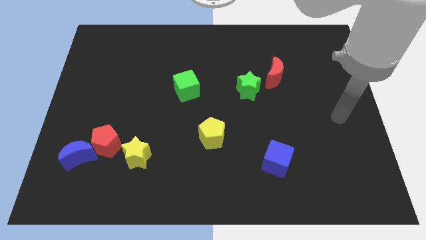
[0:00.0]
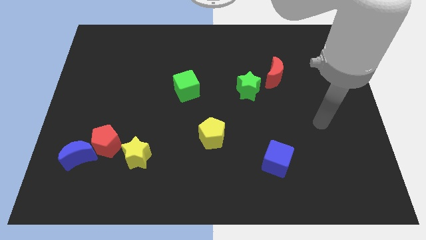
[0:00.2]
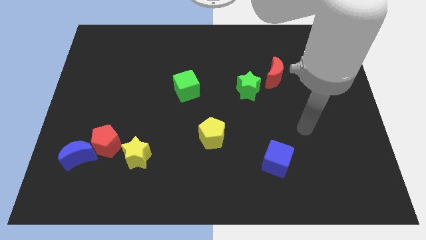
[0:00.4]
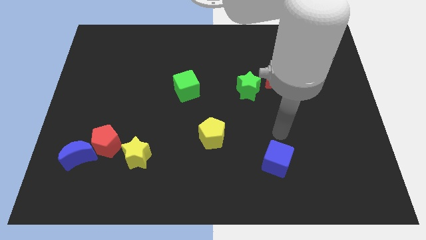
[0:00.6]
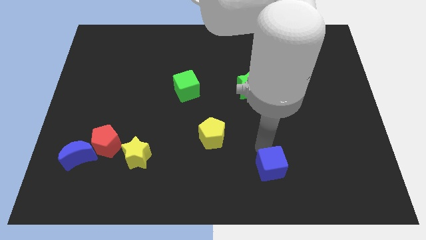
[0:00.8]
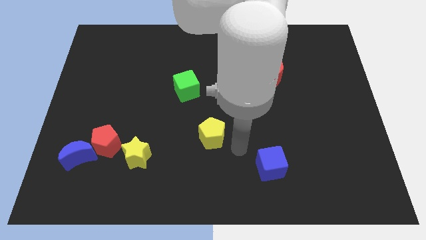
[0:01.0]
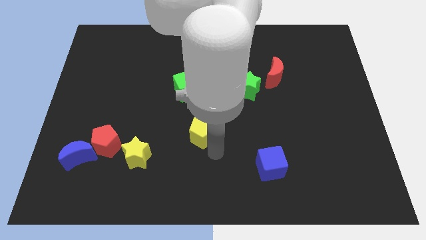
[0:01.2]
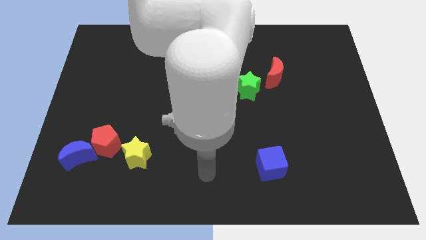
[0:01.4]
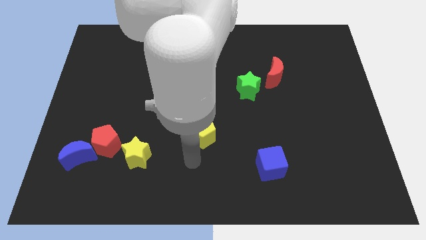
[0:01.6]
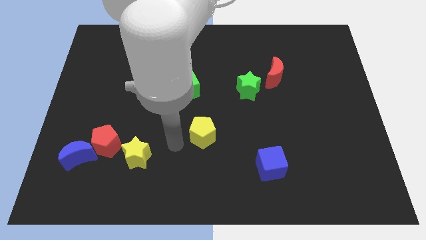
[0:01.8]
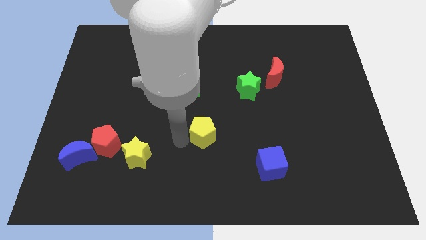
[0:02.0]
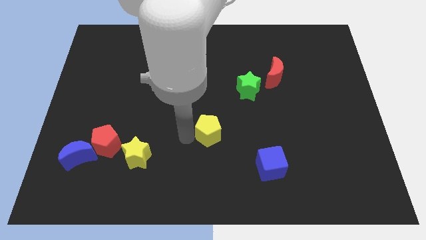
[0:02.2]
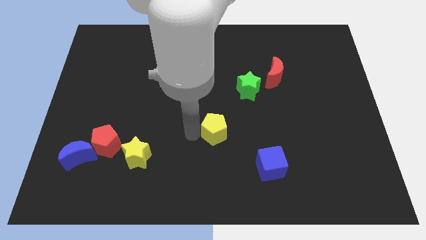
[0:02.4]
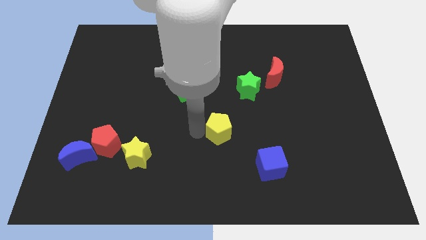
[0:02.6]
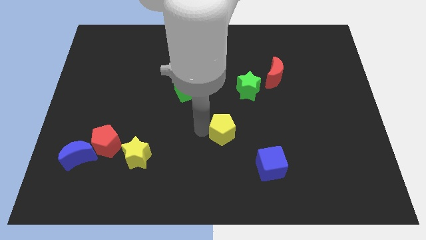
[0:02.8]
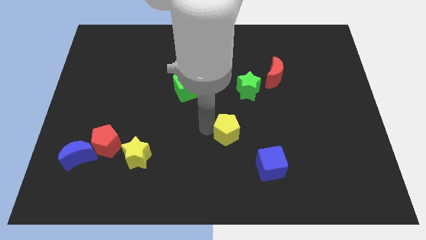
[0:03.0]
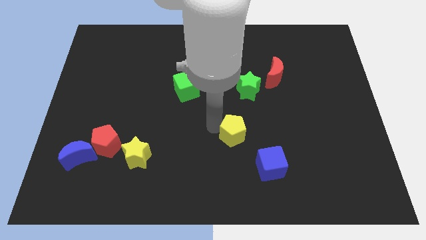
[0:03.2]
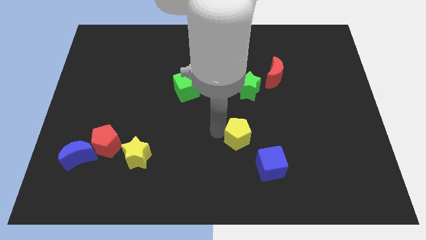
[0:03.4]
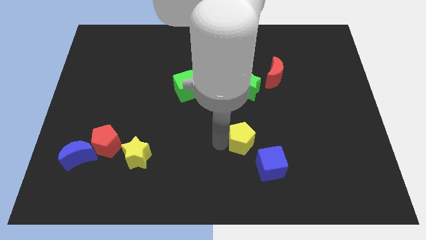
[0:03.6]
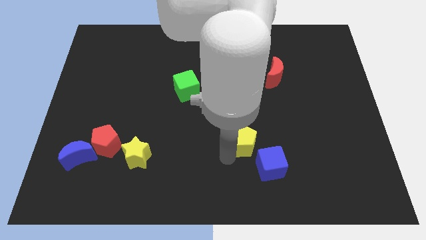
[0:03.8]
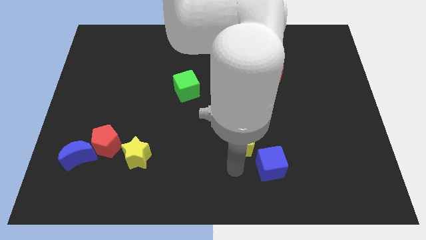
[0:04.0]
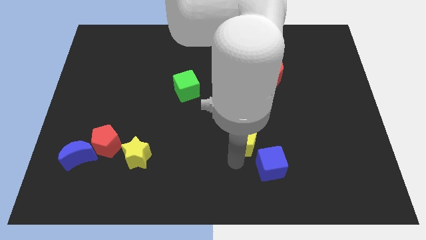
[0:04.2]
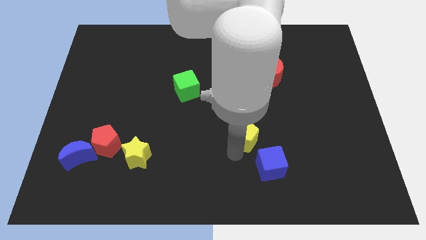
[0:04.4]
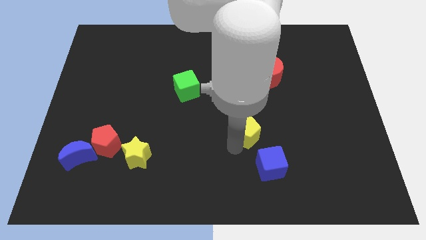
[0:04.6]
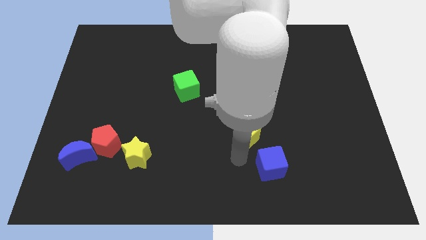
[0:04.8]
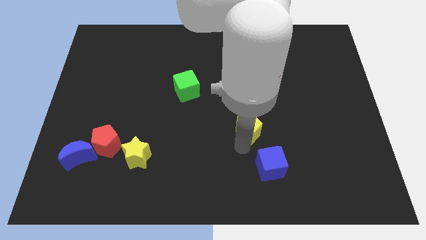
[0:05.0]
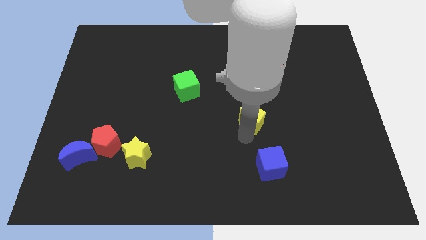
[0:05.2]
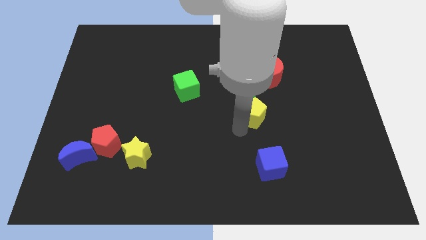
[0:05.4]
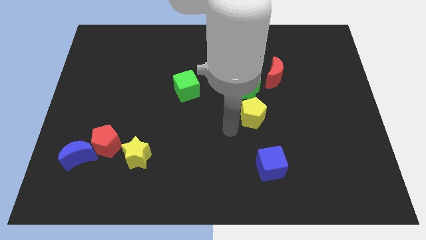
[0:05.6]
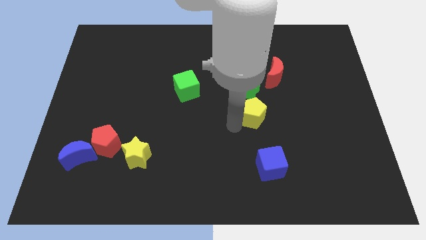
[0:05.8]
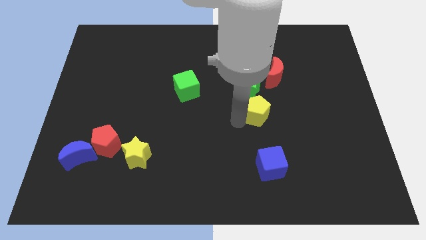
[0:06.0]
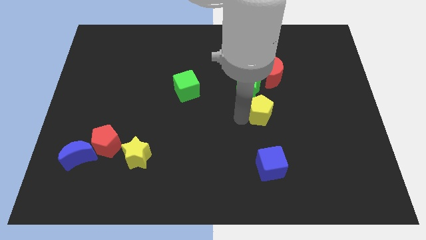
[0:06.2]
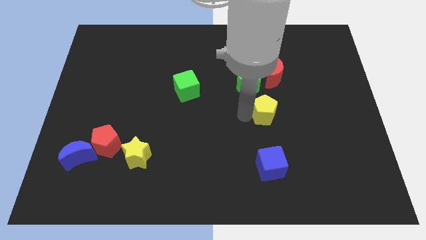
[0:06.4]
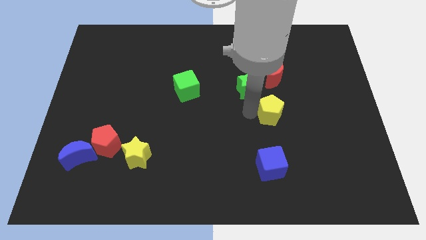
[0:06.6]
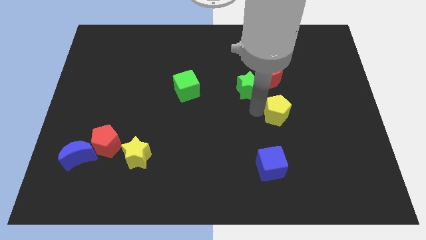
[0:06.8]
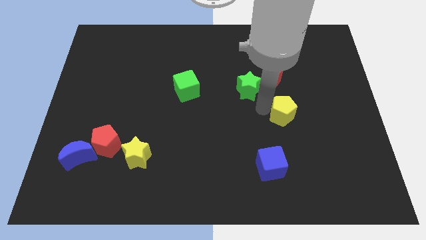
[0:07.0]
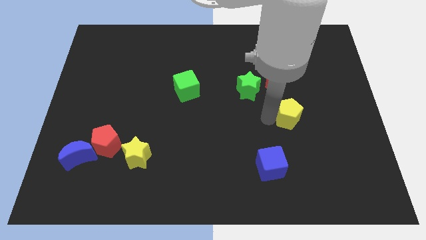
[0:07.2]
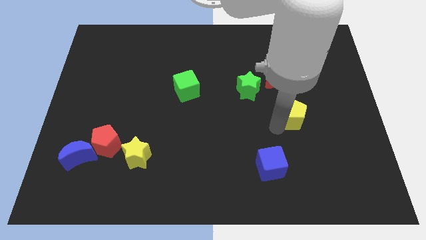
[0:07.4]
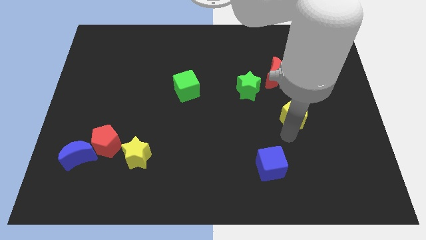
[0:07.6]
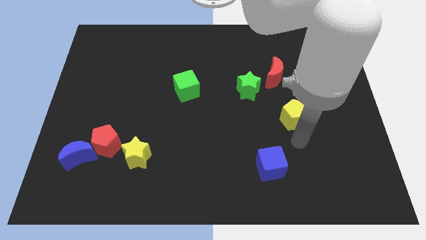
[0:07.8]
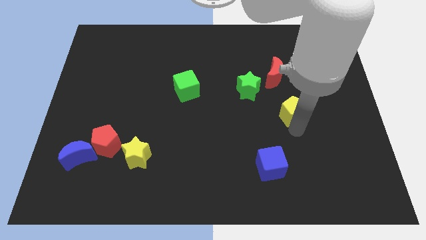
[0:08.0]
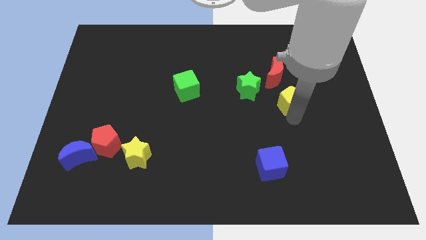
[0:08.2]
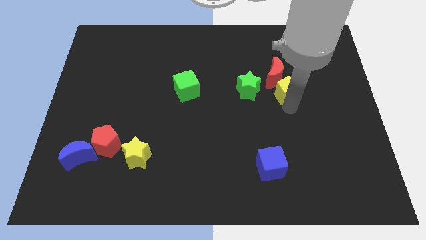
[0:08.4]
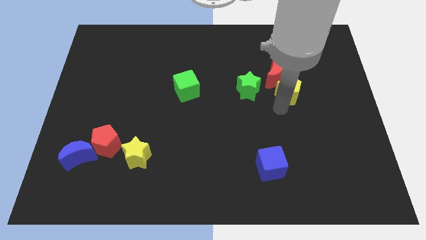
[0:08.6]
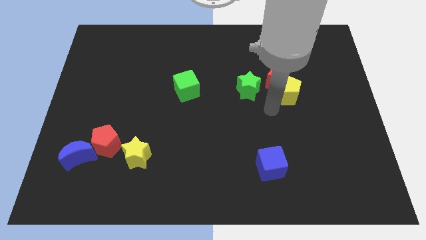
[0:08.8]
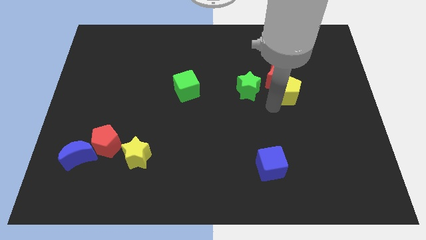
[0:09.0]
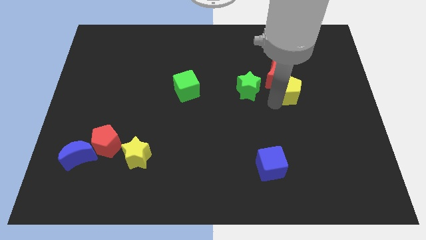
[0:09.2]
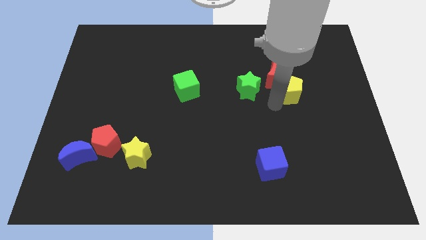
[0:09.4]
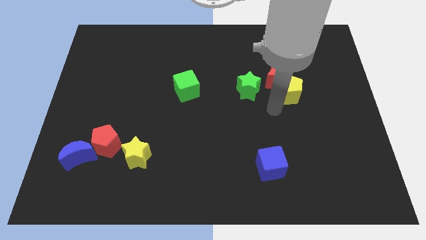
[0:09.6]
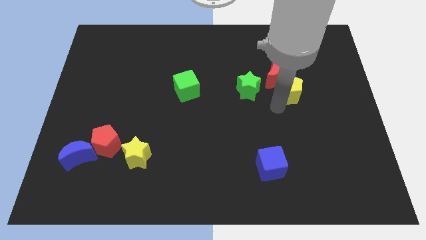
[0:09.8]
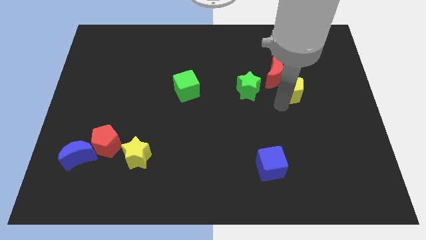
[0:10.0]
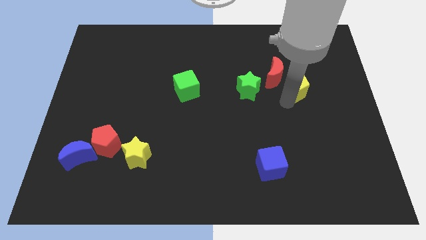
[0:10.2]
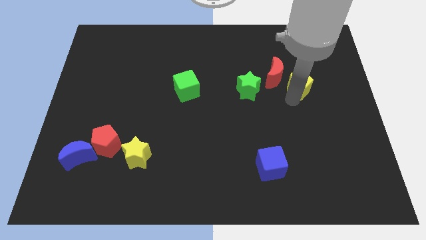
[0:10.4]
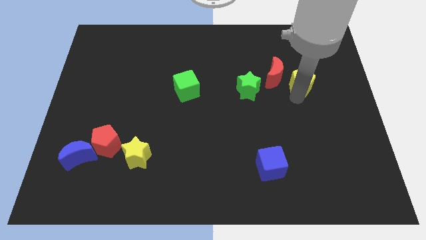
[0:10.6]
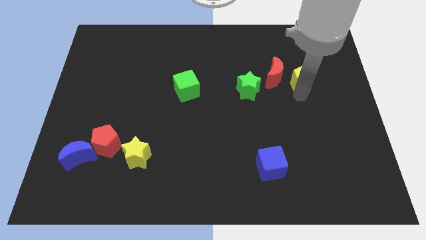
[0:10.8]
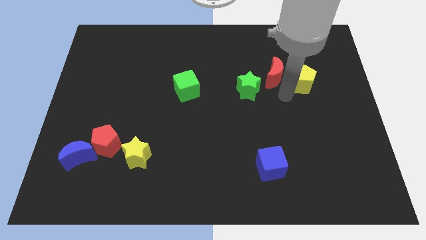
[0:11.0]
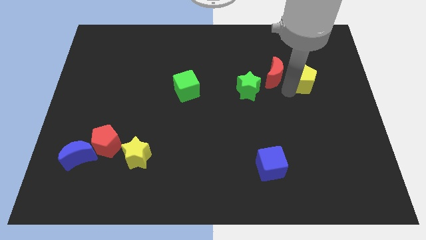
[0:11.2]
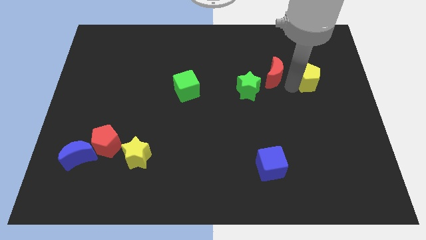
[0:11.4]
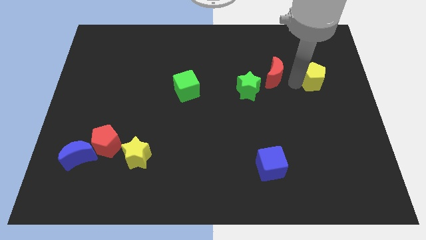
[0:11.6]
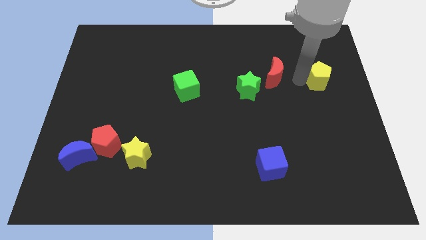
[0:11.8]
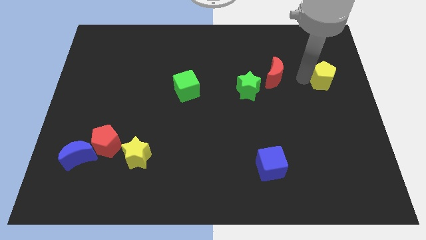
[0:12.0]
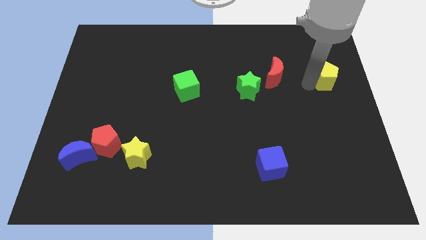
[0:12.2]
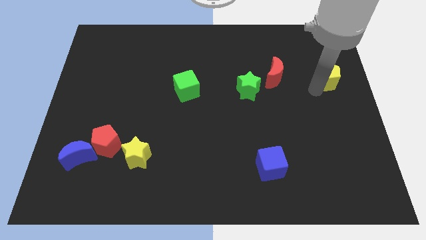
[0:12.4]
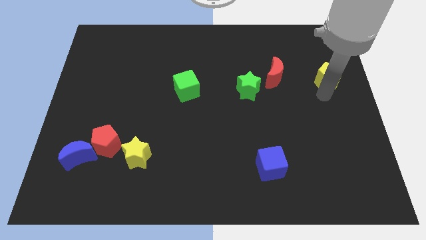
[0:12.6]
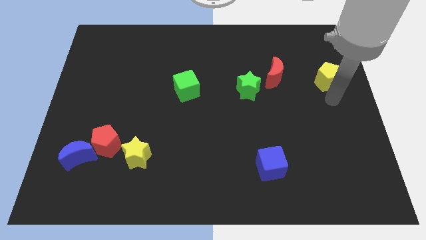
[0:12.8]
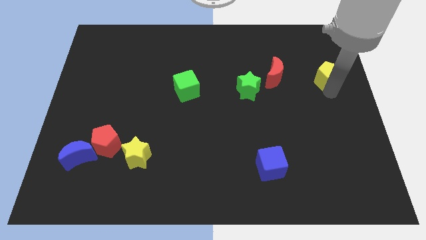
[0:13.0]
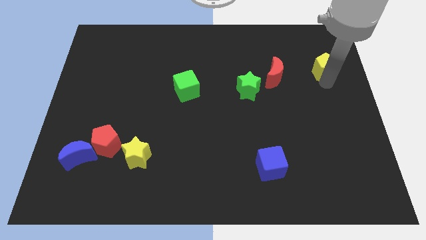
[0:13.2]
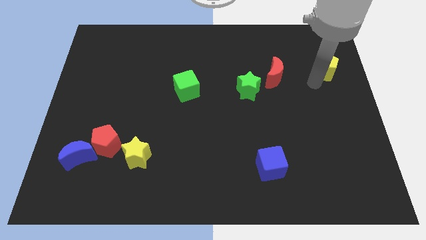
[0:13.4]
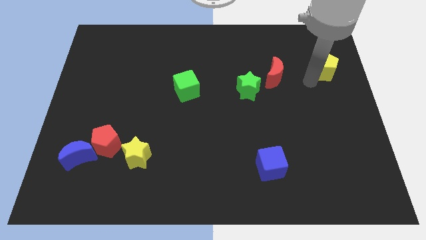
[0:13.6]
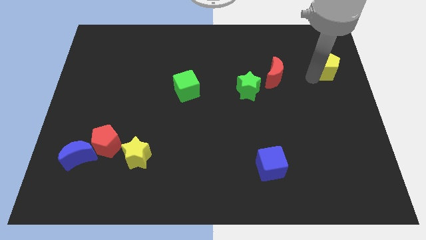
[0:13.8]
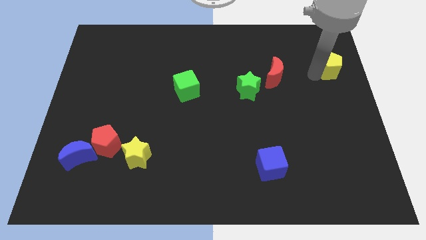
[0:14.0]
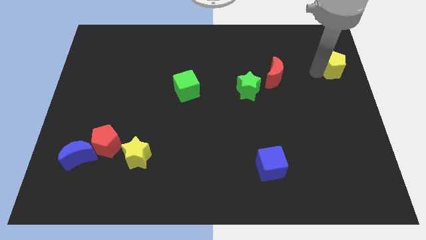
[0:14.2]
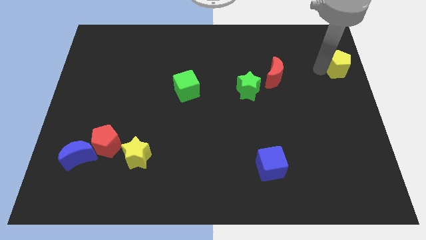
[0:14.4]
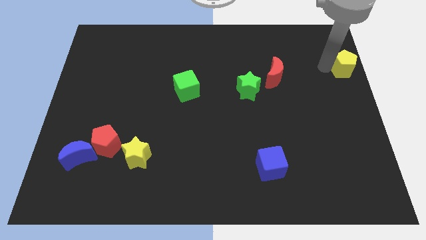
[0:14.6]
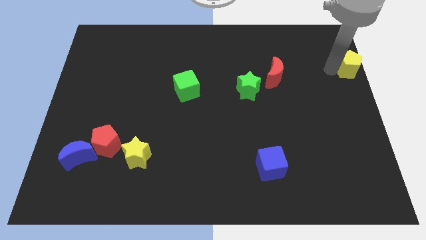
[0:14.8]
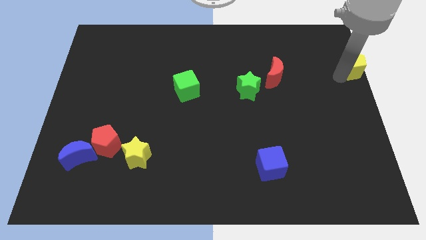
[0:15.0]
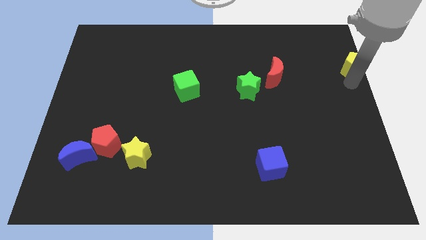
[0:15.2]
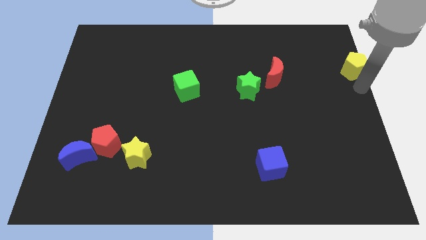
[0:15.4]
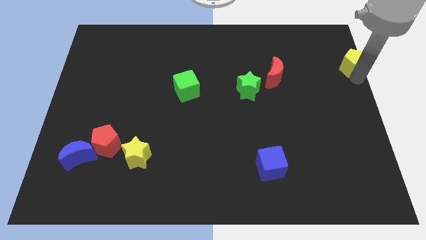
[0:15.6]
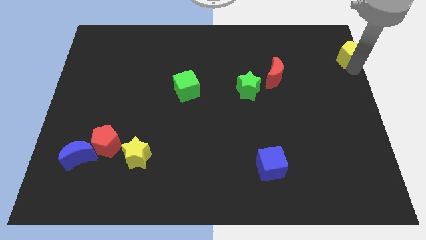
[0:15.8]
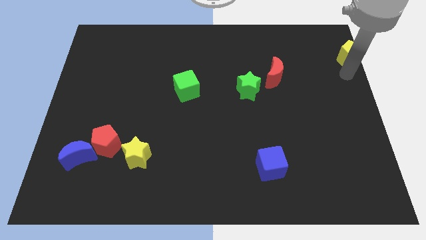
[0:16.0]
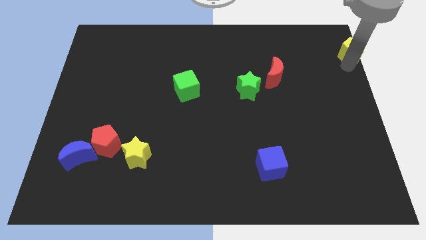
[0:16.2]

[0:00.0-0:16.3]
slide the yellow pentagon to the top right
